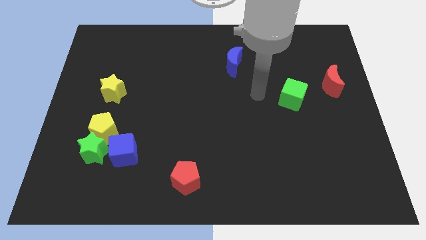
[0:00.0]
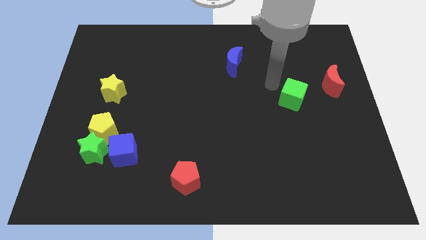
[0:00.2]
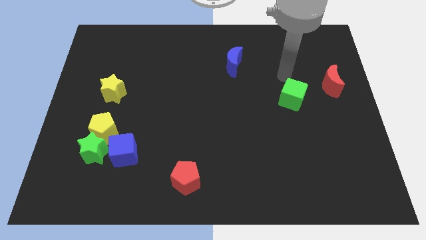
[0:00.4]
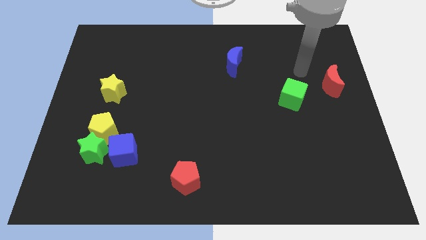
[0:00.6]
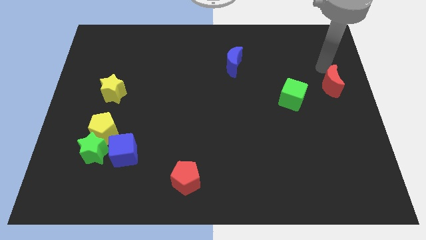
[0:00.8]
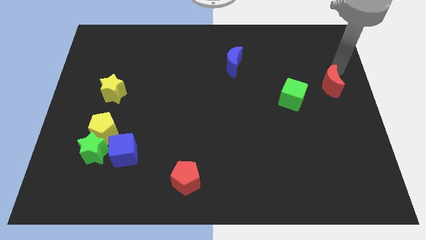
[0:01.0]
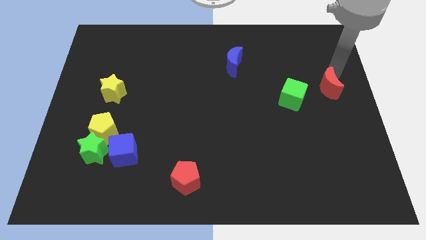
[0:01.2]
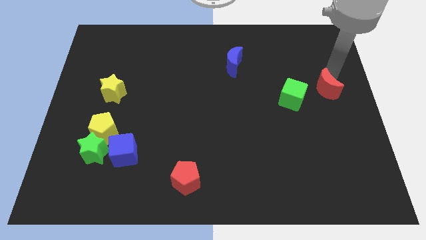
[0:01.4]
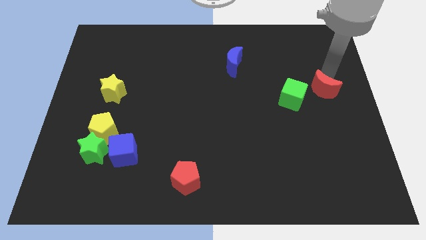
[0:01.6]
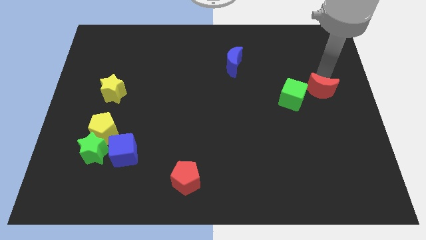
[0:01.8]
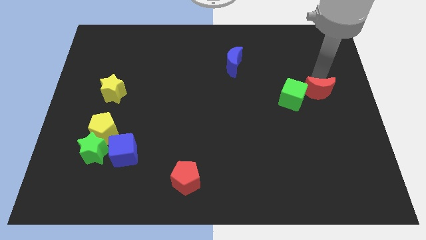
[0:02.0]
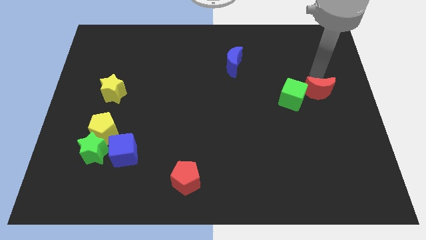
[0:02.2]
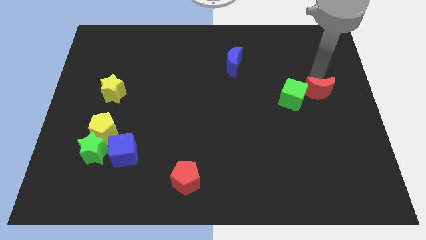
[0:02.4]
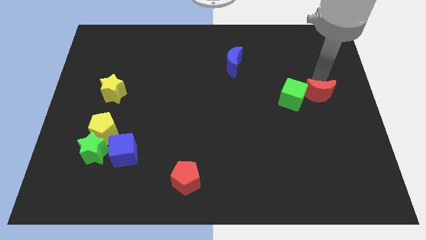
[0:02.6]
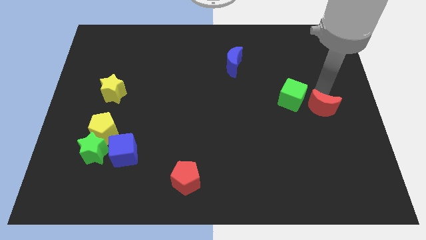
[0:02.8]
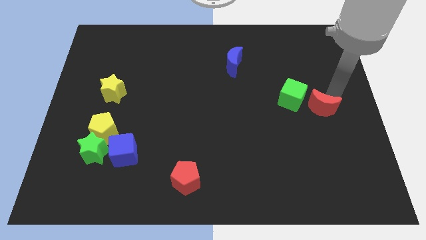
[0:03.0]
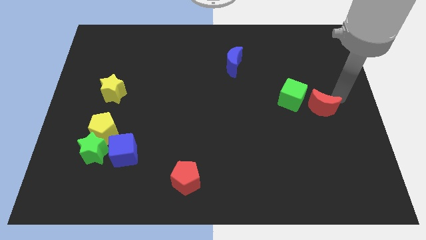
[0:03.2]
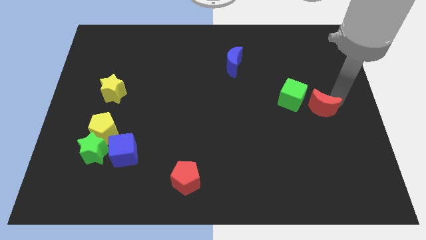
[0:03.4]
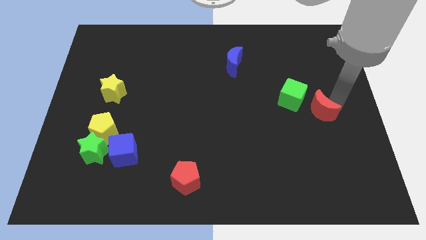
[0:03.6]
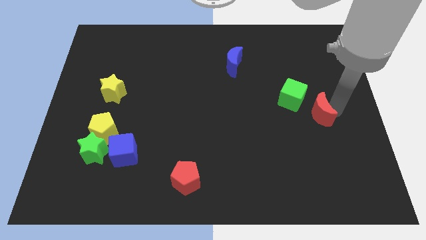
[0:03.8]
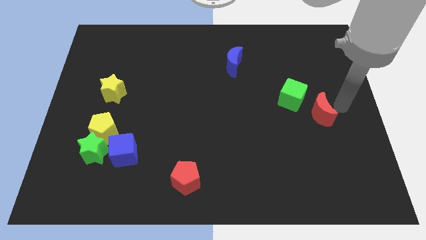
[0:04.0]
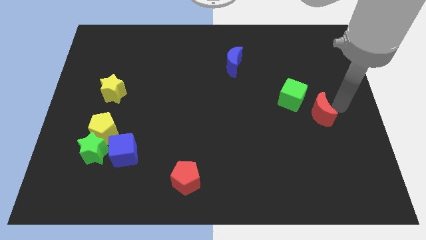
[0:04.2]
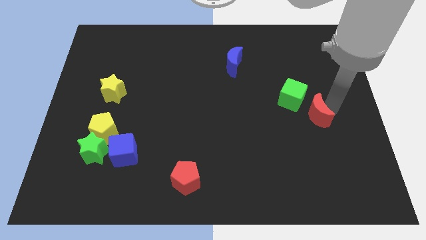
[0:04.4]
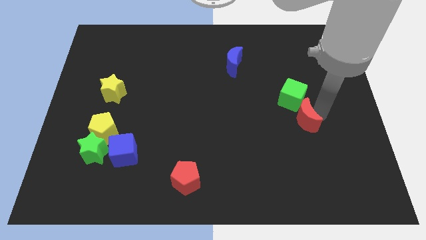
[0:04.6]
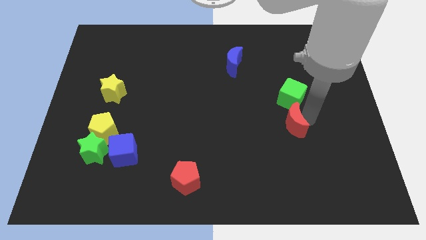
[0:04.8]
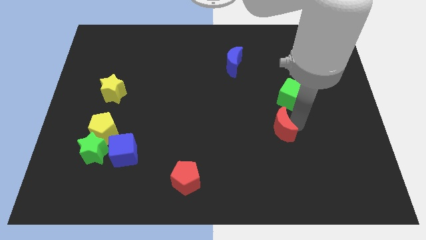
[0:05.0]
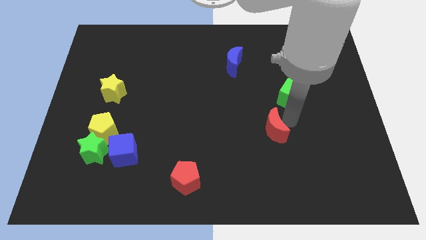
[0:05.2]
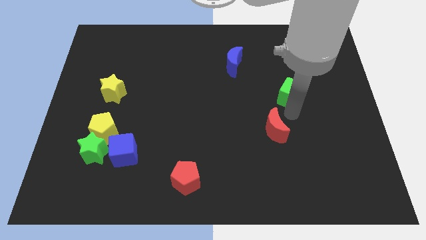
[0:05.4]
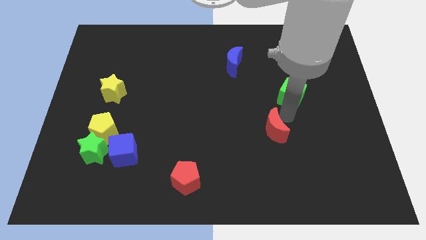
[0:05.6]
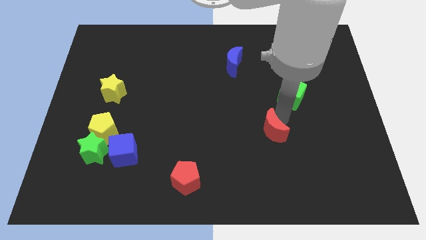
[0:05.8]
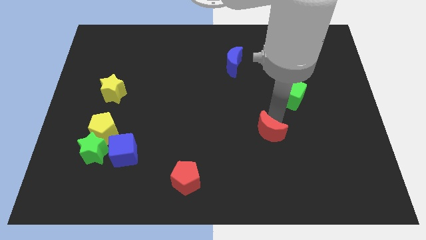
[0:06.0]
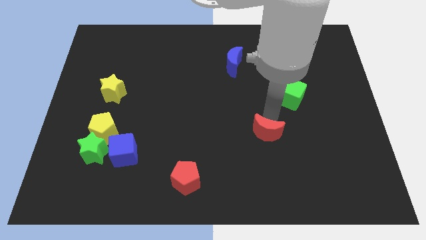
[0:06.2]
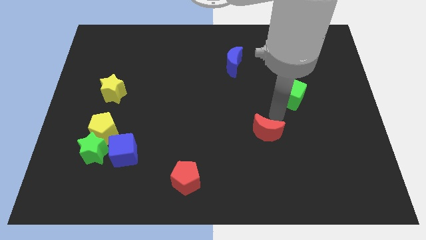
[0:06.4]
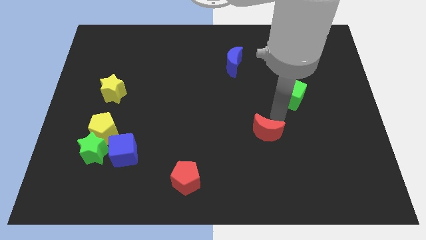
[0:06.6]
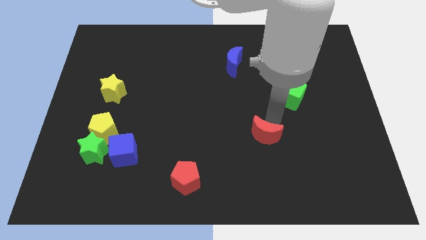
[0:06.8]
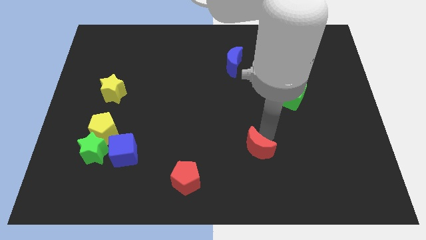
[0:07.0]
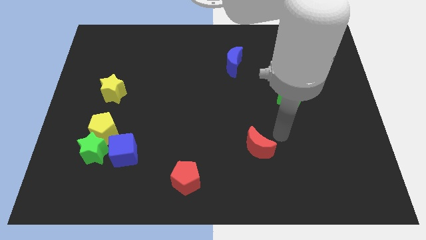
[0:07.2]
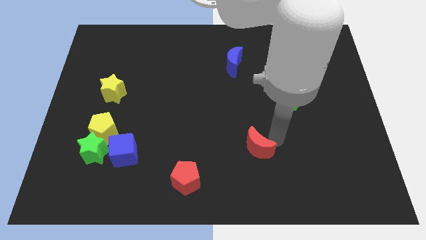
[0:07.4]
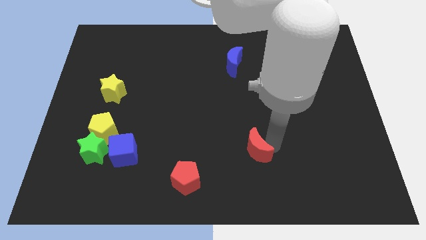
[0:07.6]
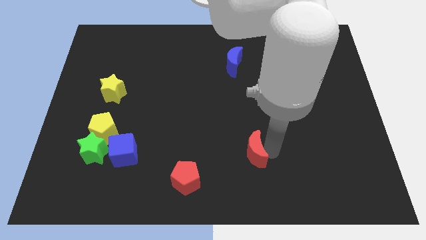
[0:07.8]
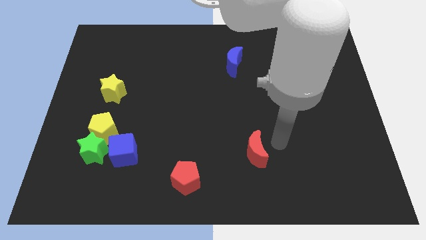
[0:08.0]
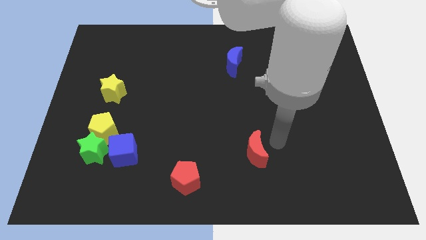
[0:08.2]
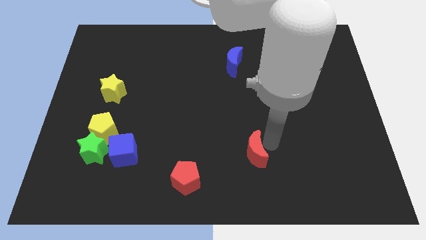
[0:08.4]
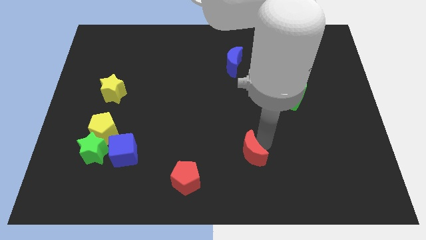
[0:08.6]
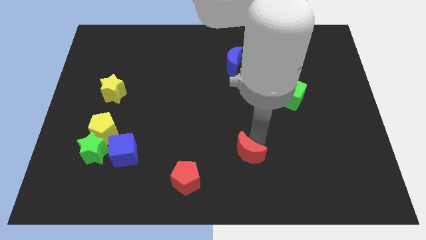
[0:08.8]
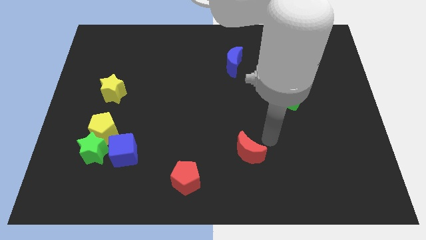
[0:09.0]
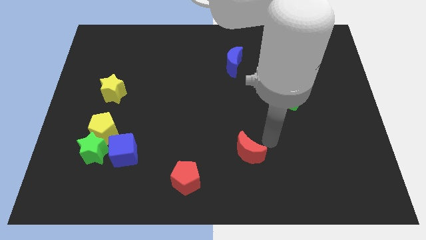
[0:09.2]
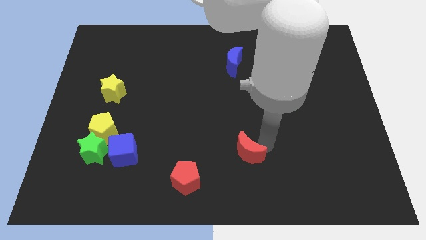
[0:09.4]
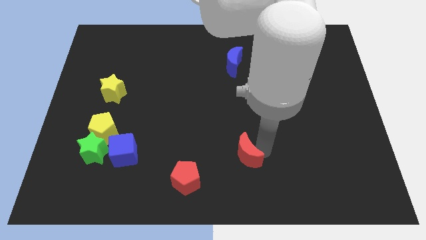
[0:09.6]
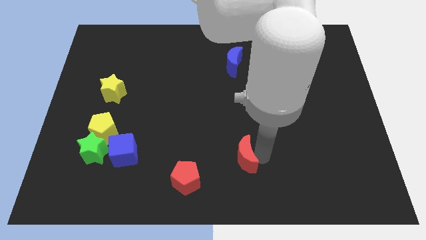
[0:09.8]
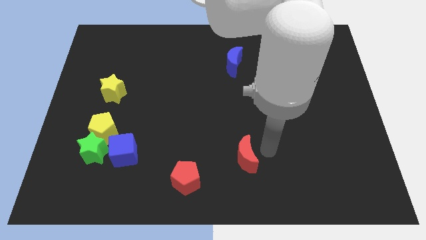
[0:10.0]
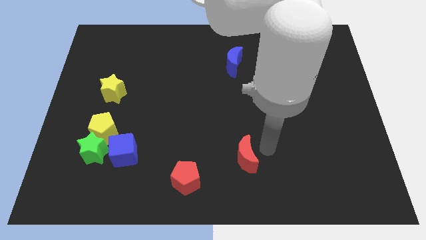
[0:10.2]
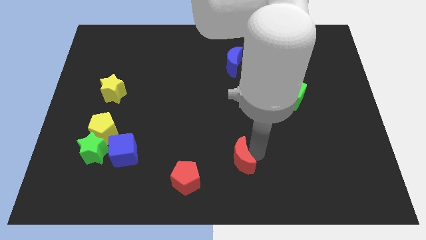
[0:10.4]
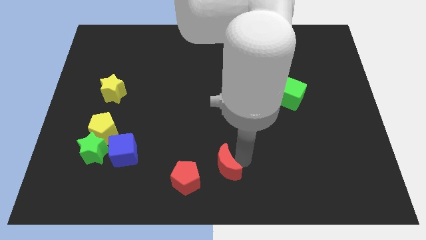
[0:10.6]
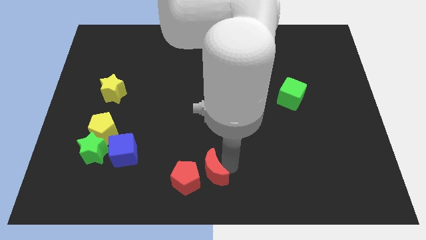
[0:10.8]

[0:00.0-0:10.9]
move the red moon close to the red pentagon

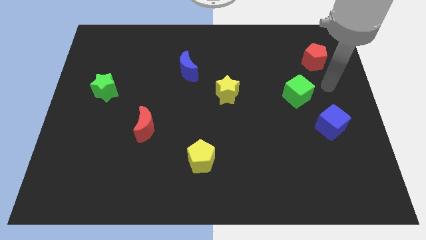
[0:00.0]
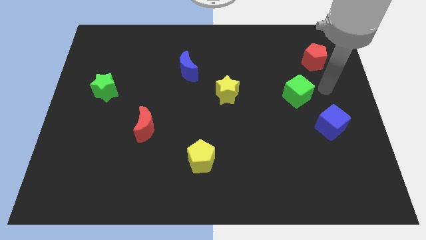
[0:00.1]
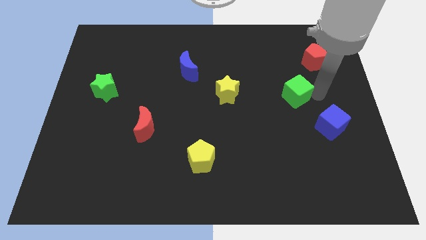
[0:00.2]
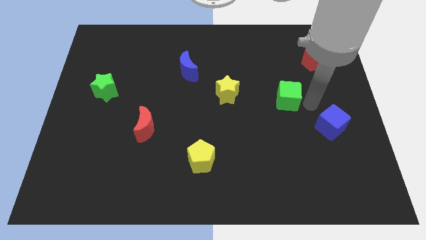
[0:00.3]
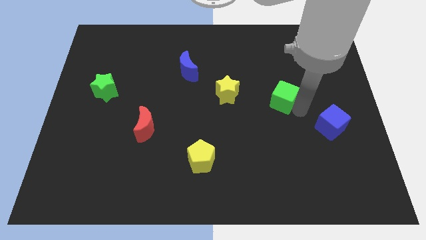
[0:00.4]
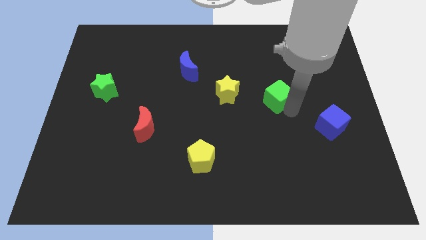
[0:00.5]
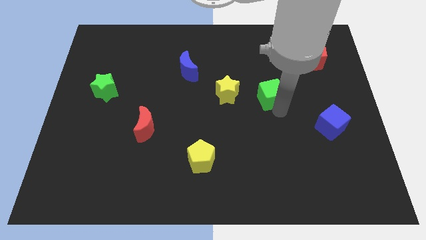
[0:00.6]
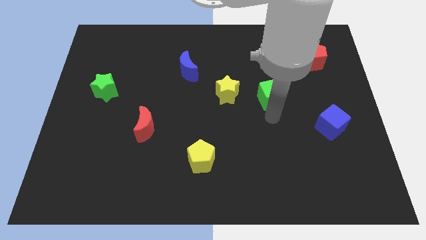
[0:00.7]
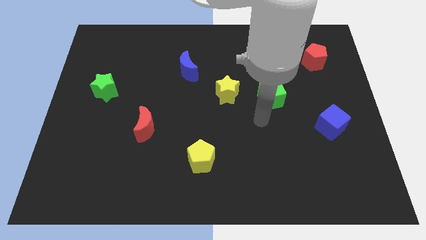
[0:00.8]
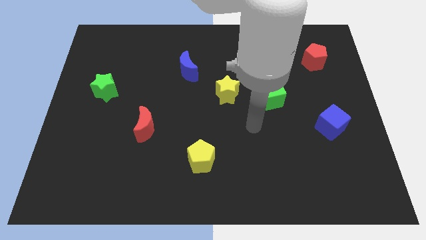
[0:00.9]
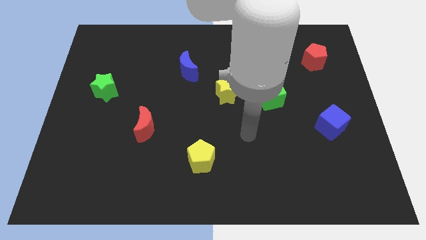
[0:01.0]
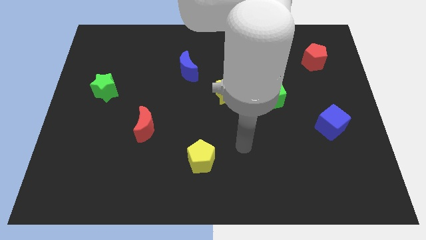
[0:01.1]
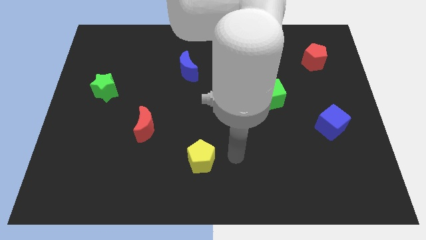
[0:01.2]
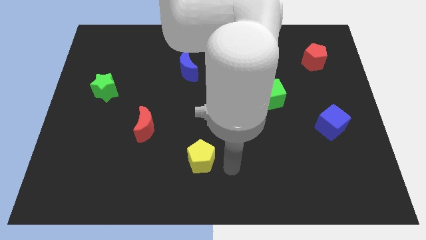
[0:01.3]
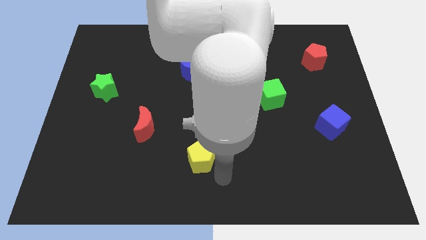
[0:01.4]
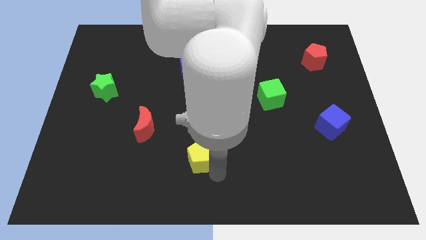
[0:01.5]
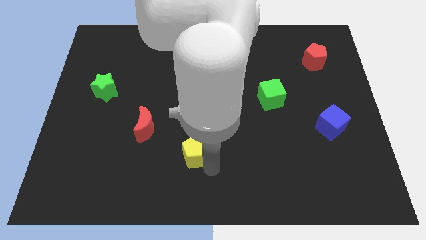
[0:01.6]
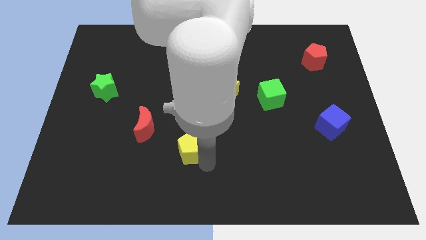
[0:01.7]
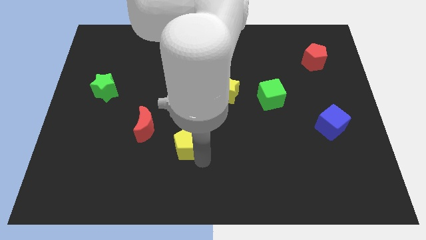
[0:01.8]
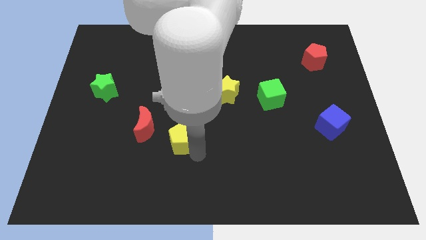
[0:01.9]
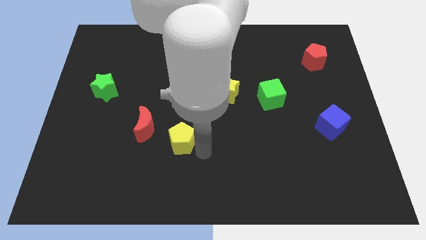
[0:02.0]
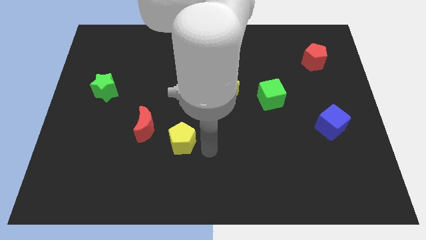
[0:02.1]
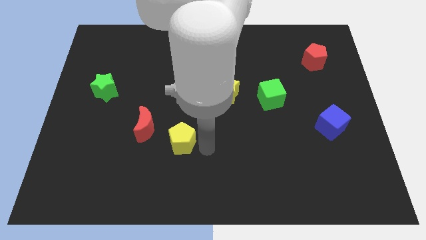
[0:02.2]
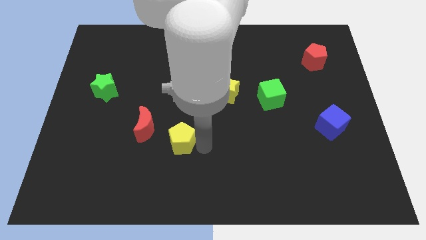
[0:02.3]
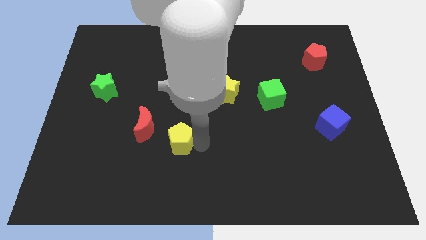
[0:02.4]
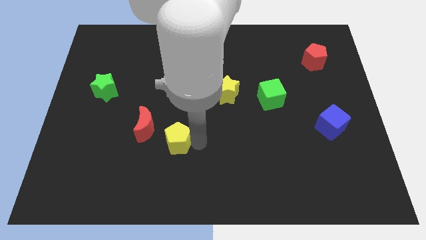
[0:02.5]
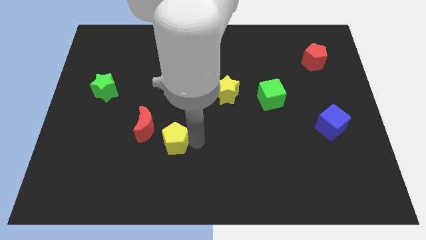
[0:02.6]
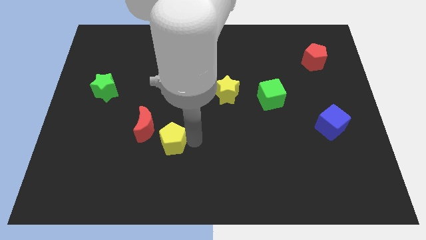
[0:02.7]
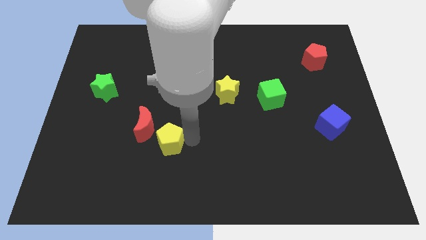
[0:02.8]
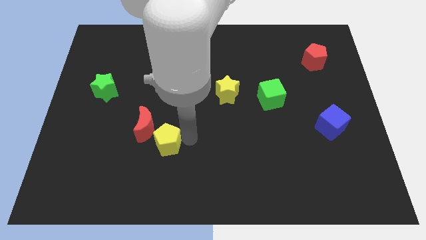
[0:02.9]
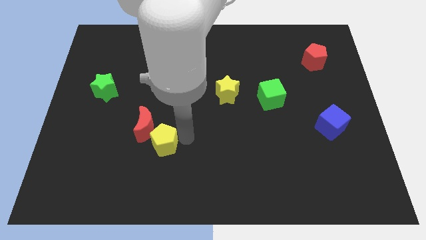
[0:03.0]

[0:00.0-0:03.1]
put the yellow pentagon towards the red moon
